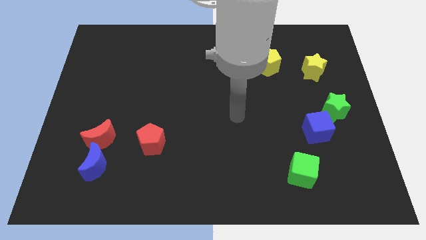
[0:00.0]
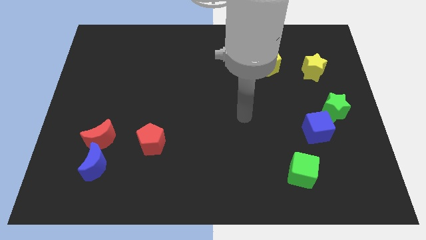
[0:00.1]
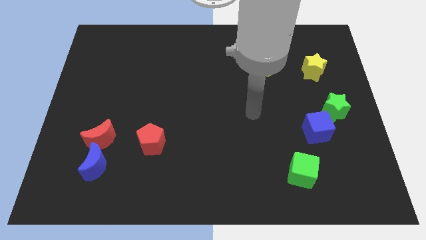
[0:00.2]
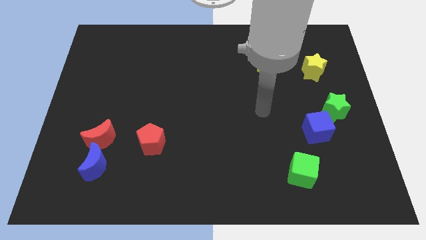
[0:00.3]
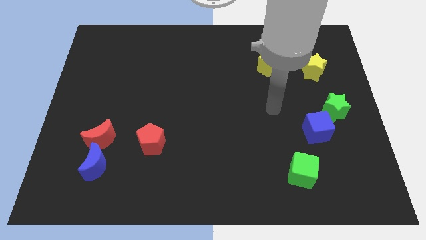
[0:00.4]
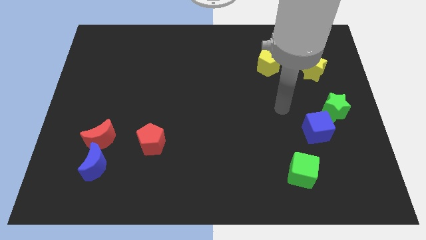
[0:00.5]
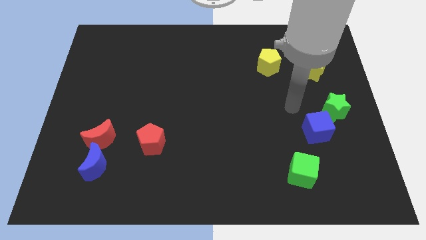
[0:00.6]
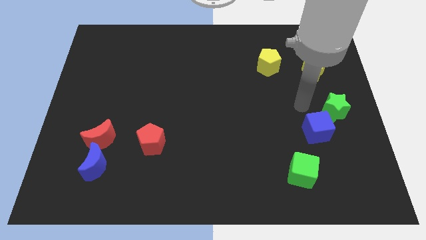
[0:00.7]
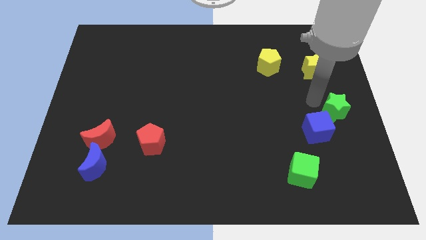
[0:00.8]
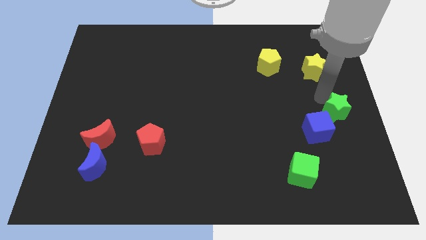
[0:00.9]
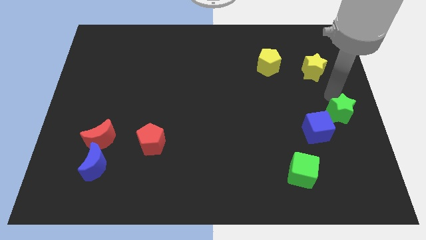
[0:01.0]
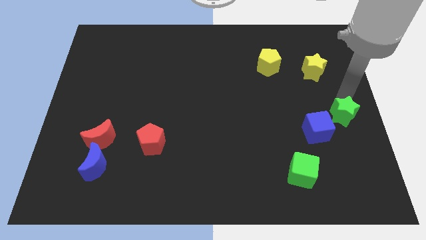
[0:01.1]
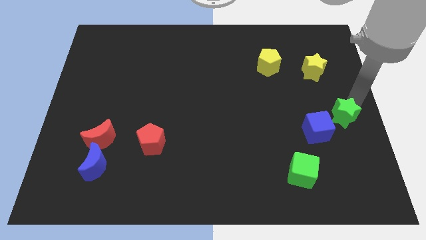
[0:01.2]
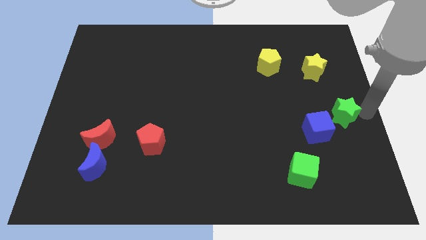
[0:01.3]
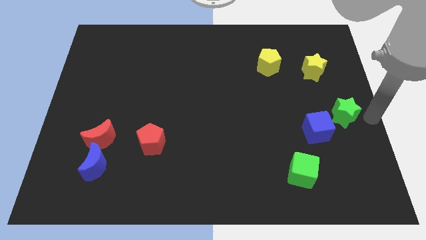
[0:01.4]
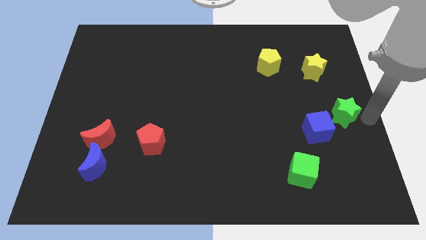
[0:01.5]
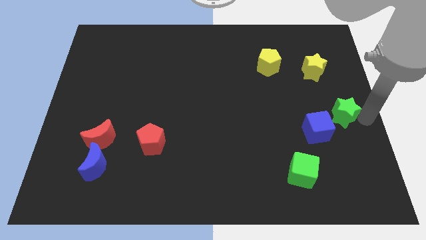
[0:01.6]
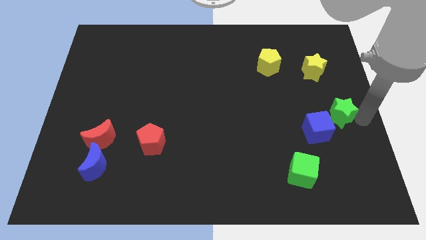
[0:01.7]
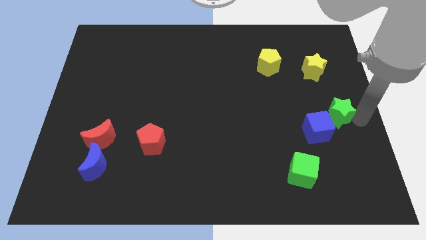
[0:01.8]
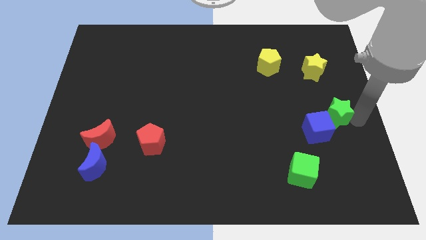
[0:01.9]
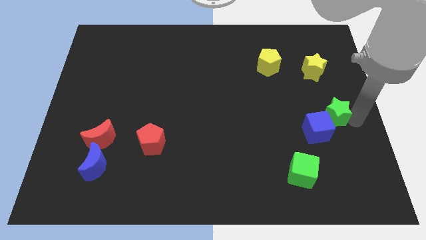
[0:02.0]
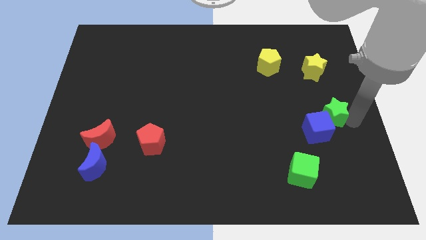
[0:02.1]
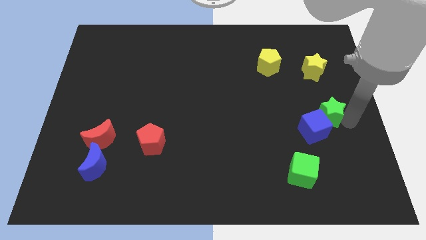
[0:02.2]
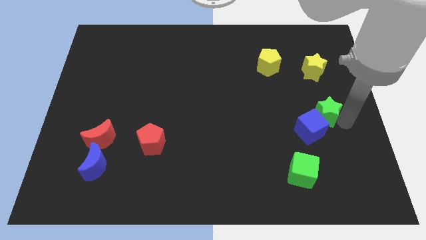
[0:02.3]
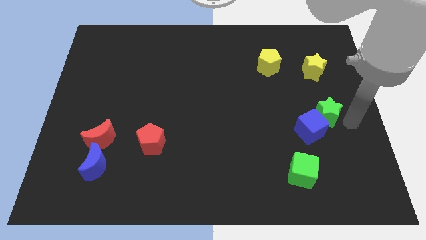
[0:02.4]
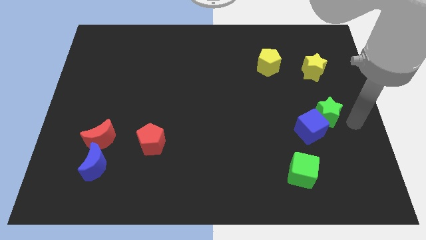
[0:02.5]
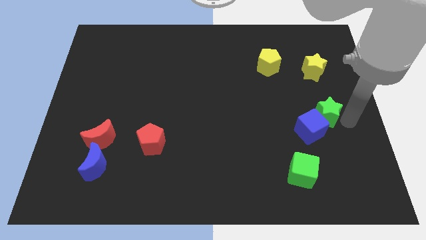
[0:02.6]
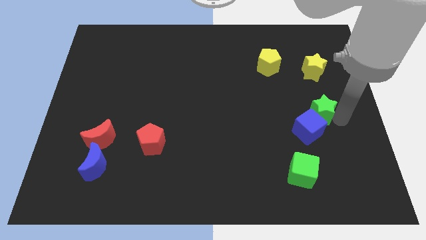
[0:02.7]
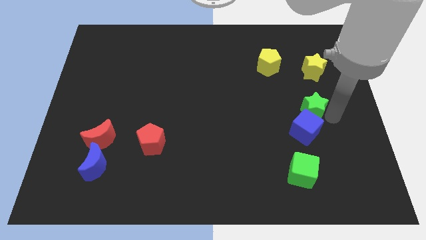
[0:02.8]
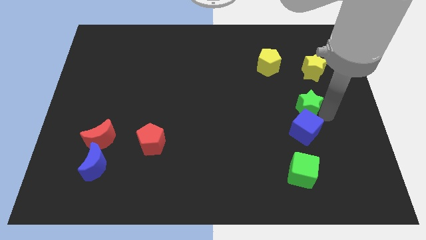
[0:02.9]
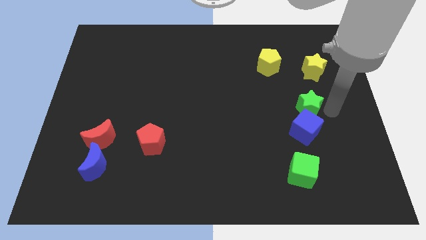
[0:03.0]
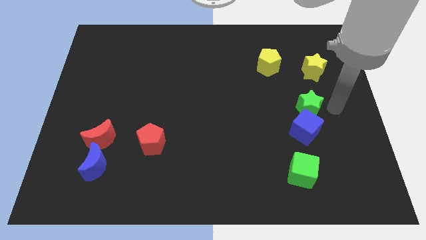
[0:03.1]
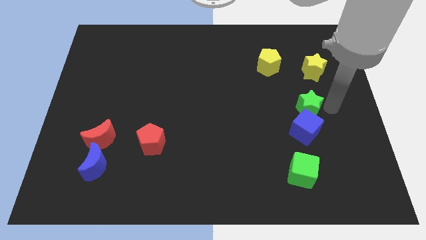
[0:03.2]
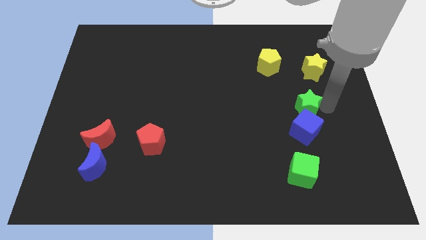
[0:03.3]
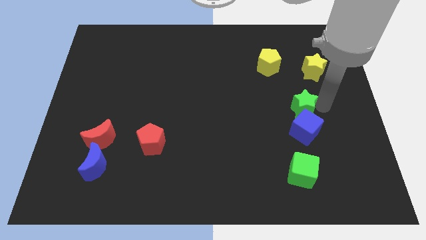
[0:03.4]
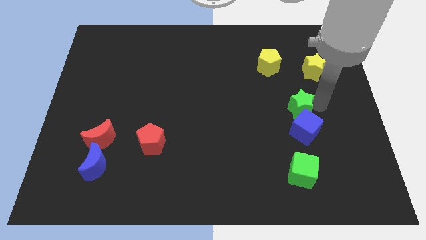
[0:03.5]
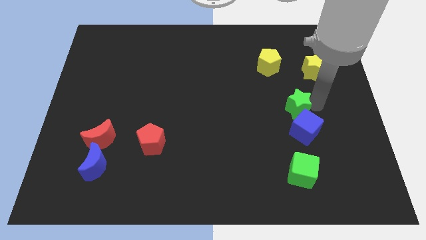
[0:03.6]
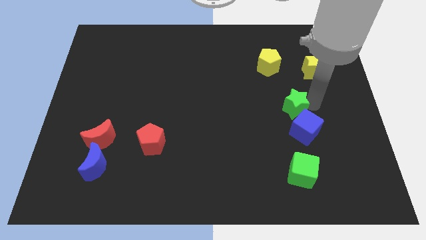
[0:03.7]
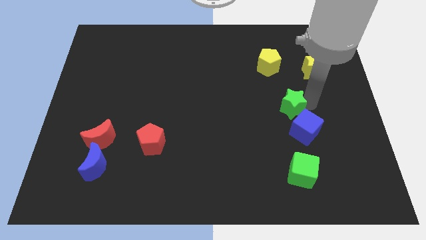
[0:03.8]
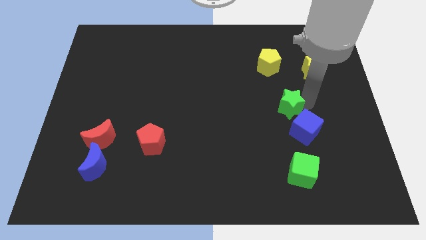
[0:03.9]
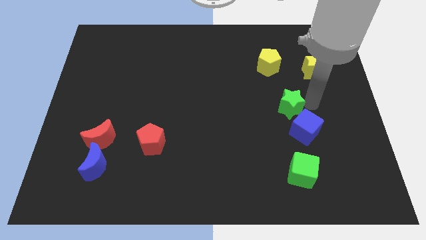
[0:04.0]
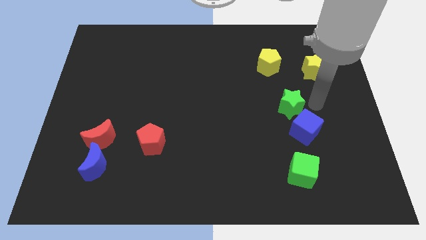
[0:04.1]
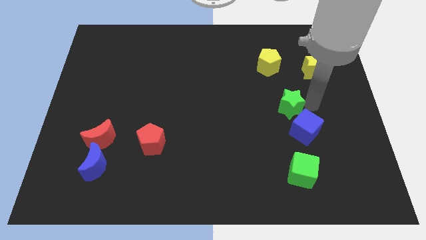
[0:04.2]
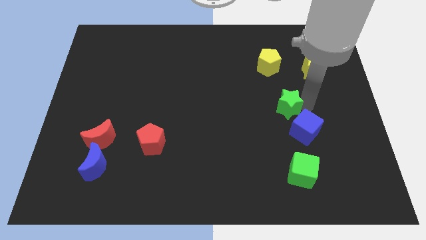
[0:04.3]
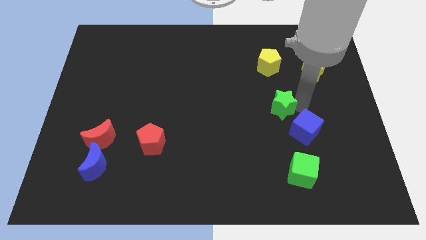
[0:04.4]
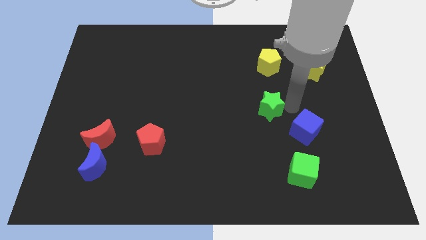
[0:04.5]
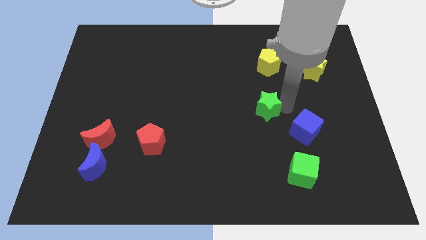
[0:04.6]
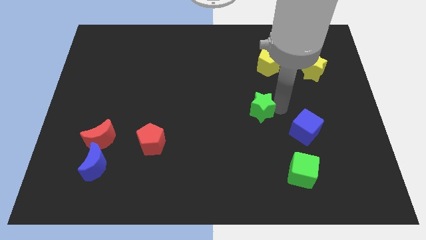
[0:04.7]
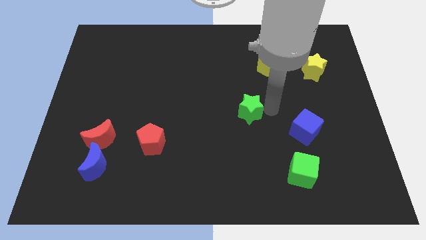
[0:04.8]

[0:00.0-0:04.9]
slide the green star left

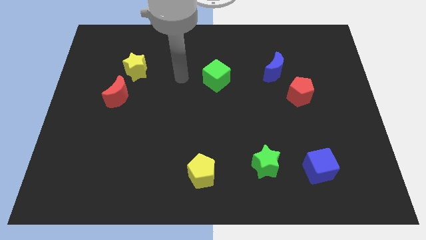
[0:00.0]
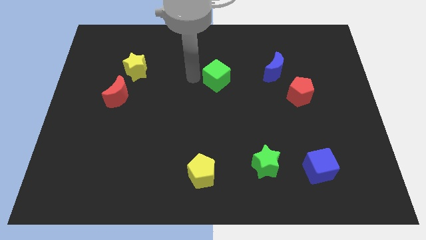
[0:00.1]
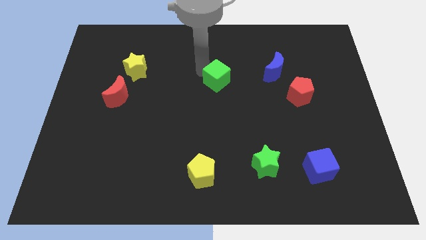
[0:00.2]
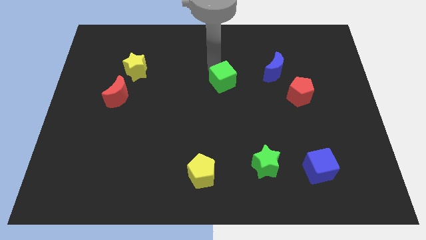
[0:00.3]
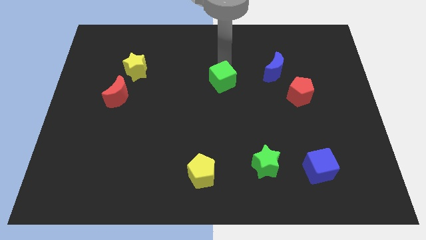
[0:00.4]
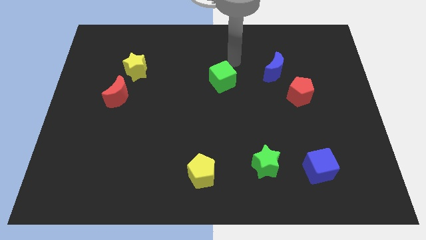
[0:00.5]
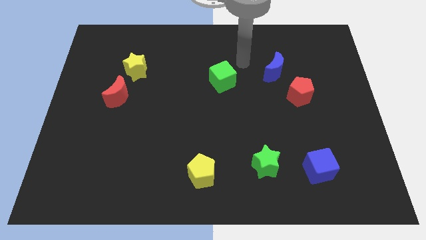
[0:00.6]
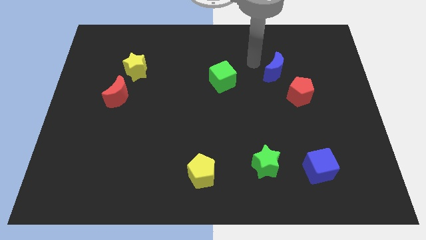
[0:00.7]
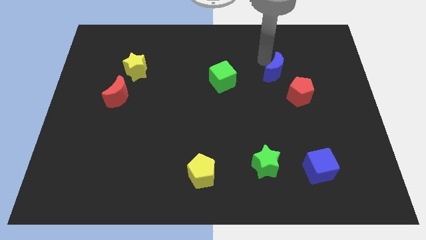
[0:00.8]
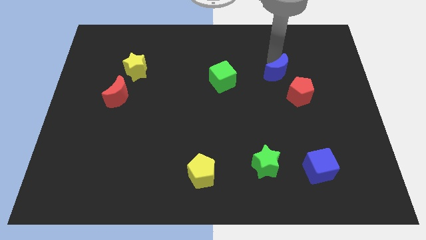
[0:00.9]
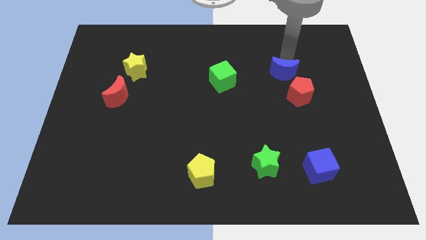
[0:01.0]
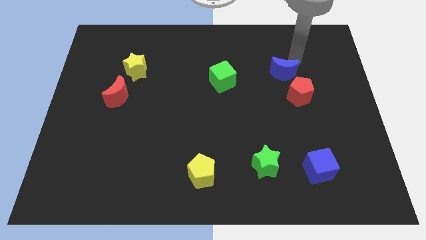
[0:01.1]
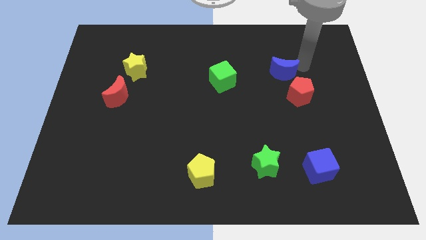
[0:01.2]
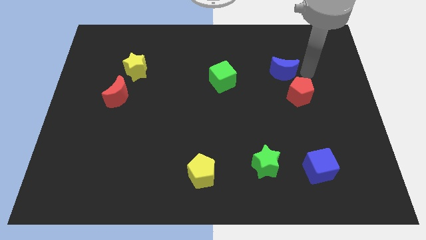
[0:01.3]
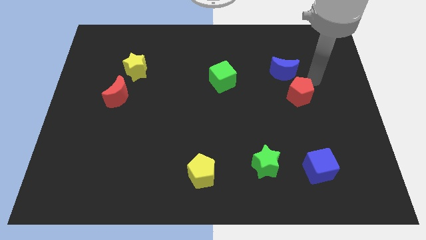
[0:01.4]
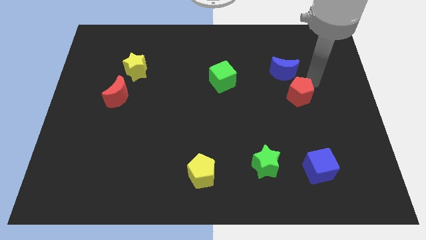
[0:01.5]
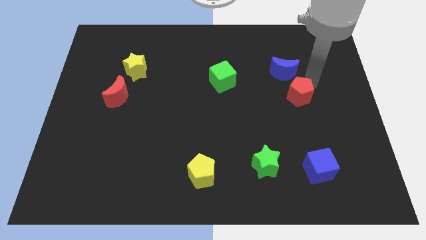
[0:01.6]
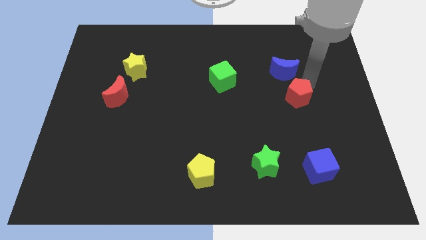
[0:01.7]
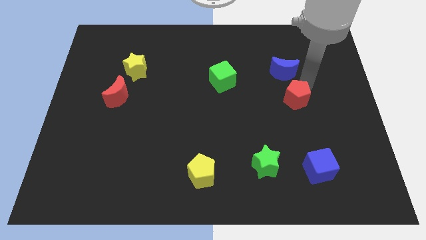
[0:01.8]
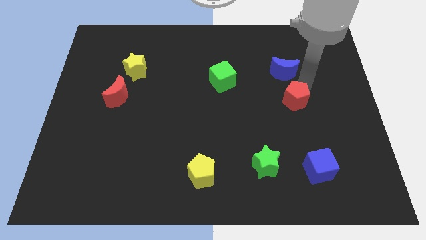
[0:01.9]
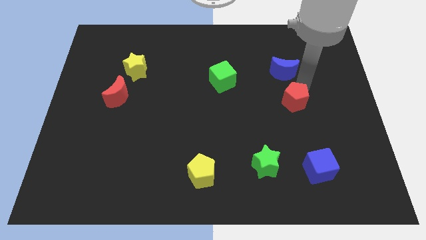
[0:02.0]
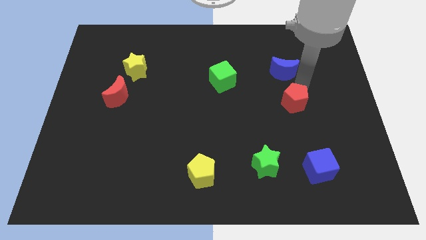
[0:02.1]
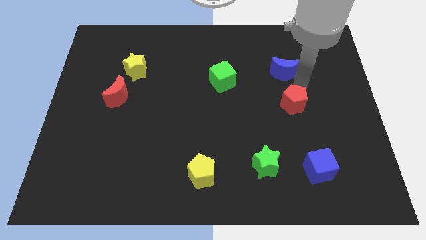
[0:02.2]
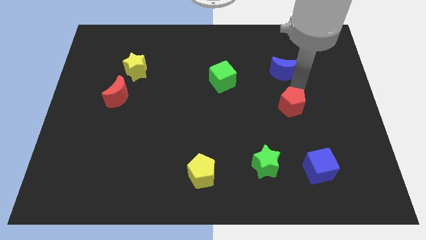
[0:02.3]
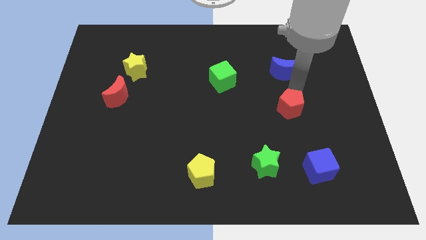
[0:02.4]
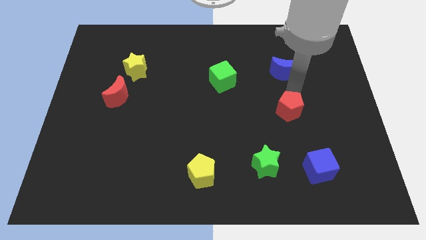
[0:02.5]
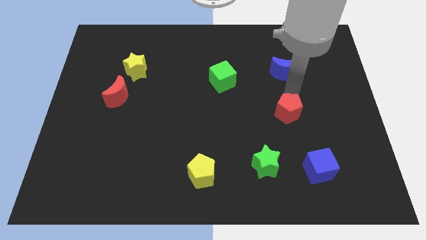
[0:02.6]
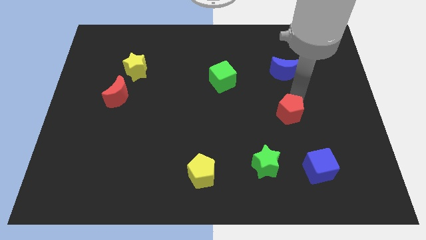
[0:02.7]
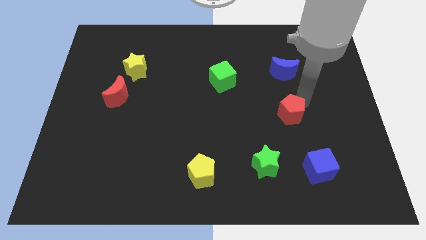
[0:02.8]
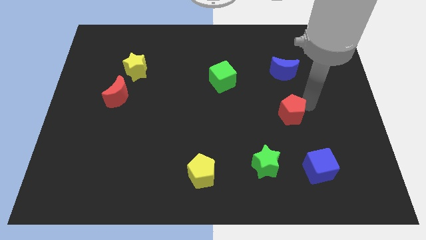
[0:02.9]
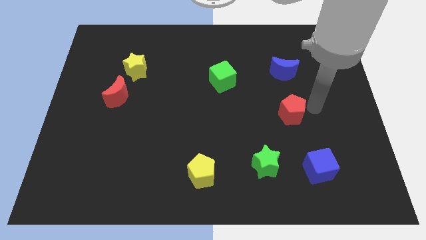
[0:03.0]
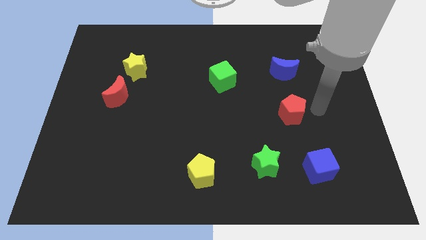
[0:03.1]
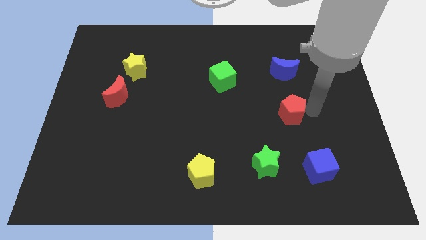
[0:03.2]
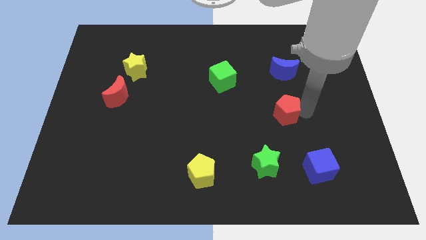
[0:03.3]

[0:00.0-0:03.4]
push the red pentagon down and to the left slightly
